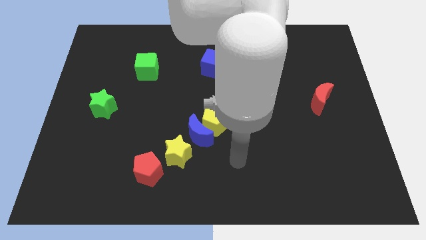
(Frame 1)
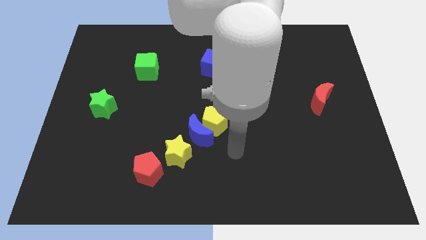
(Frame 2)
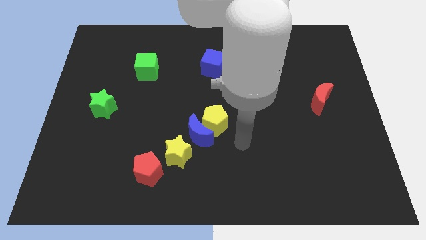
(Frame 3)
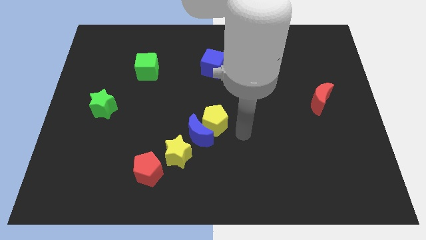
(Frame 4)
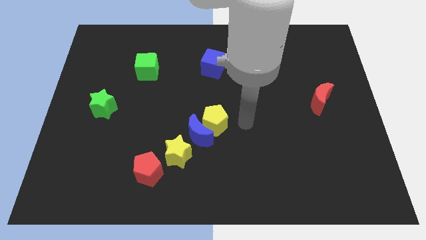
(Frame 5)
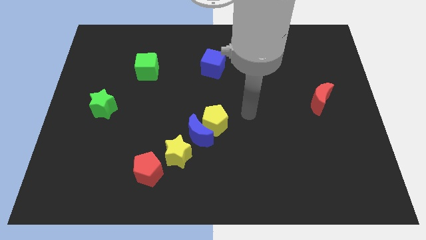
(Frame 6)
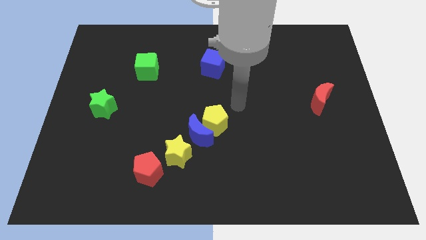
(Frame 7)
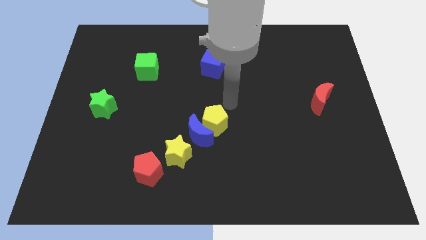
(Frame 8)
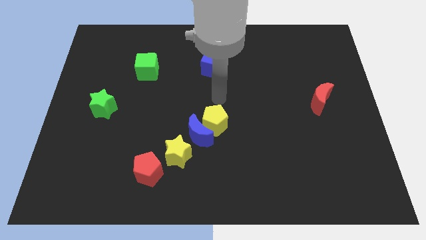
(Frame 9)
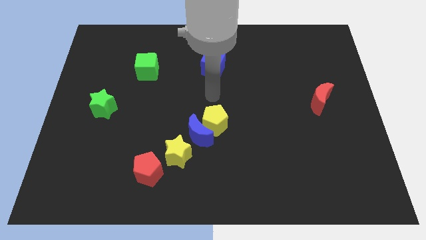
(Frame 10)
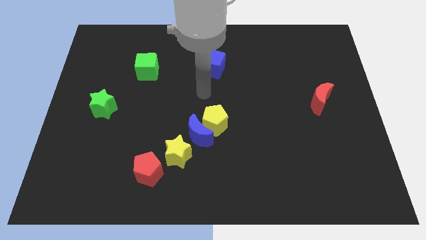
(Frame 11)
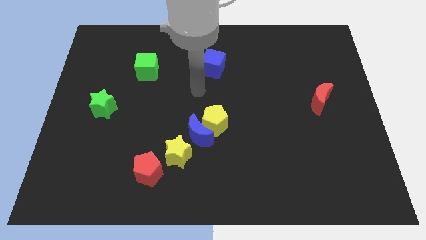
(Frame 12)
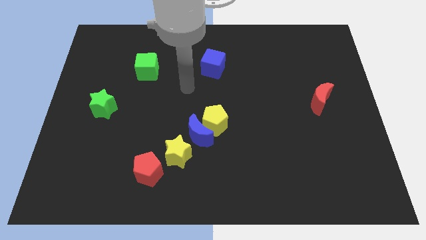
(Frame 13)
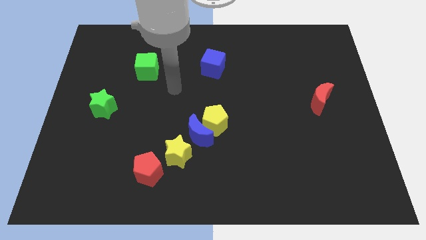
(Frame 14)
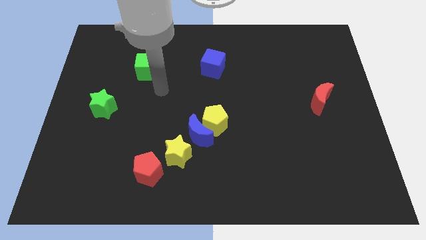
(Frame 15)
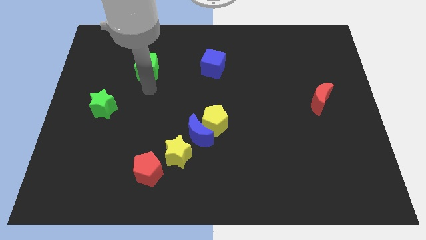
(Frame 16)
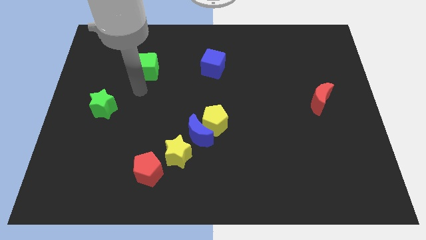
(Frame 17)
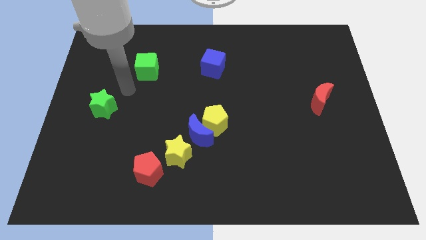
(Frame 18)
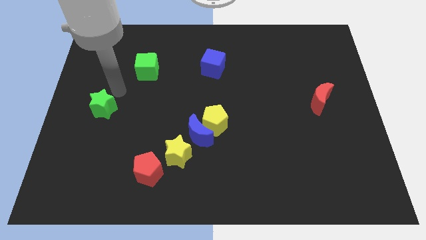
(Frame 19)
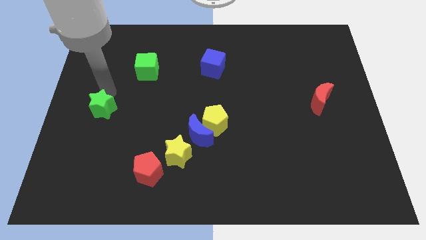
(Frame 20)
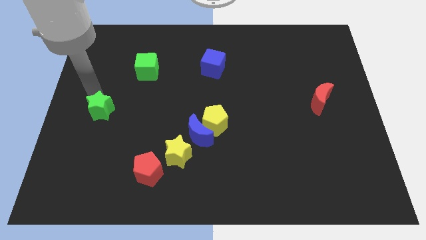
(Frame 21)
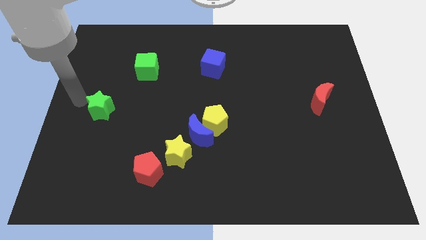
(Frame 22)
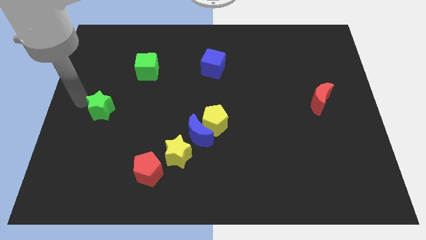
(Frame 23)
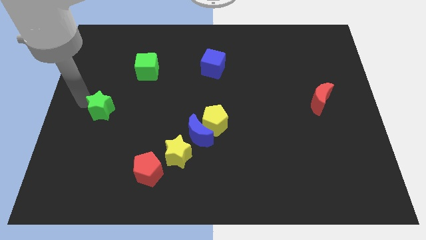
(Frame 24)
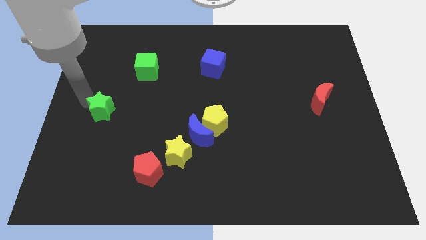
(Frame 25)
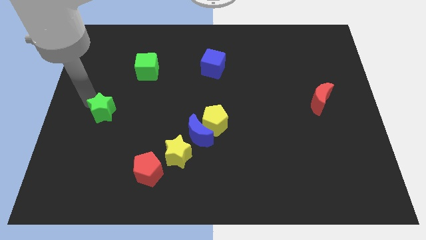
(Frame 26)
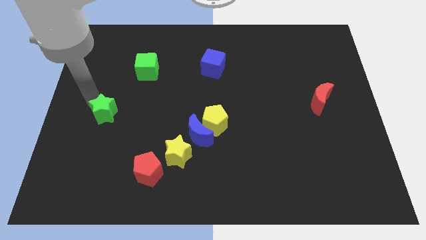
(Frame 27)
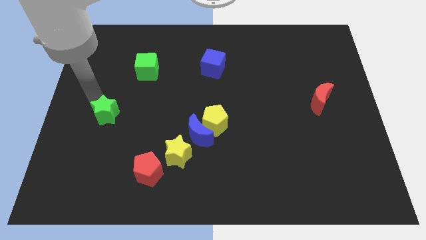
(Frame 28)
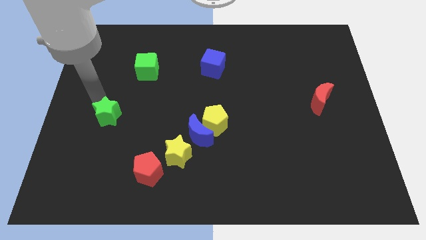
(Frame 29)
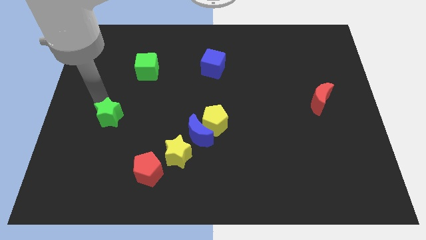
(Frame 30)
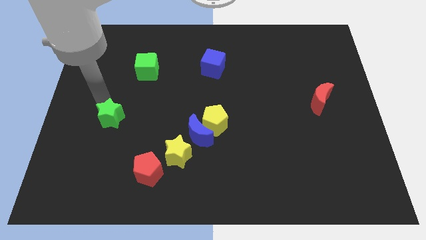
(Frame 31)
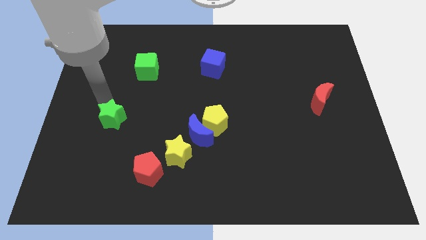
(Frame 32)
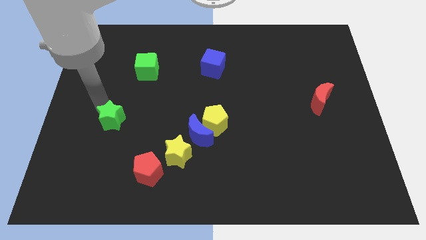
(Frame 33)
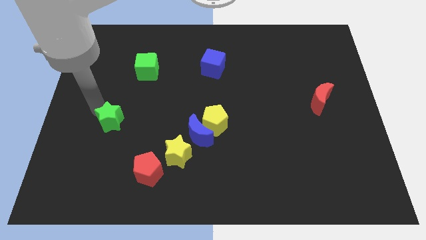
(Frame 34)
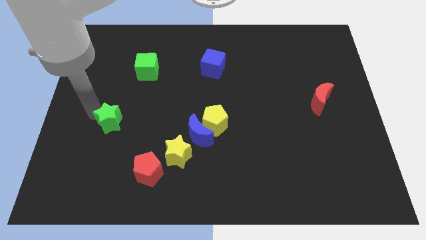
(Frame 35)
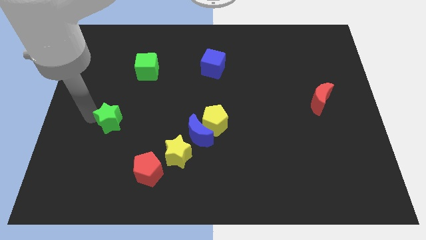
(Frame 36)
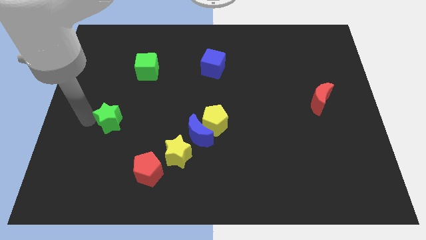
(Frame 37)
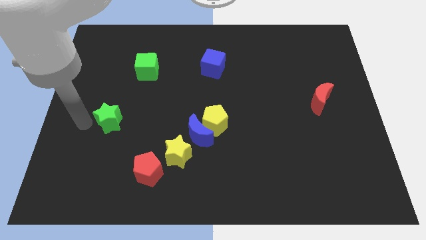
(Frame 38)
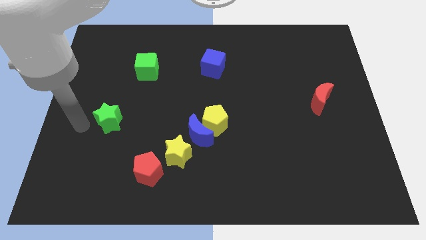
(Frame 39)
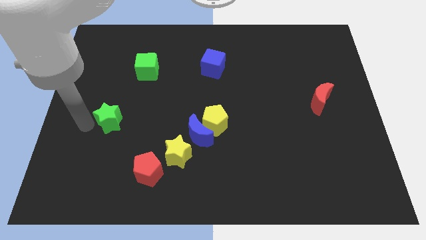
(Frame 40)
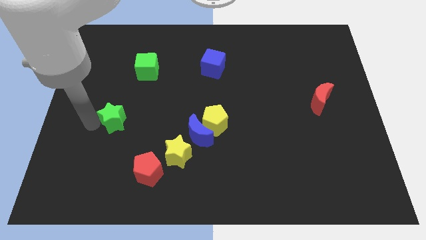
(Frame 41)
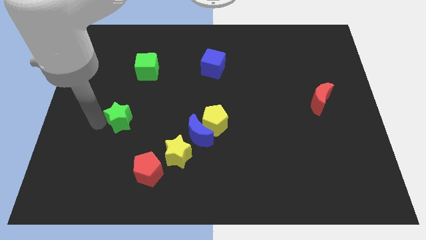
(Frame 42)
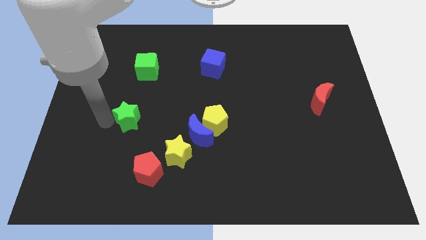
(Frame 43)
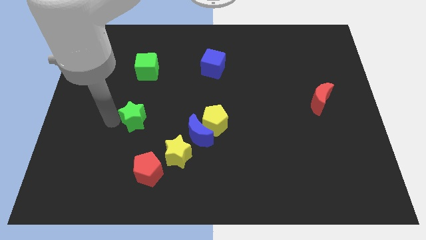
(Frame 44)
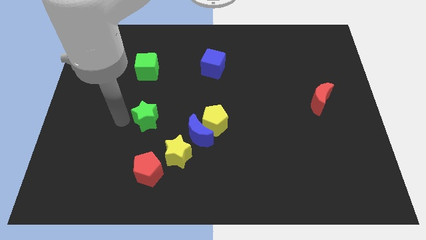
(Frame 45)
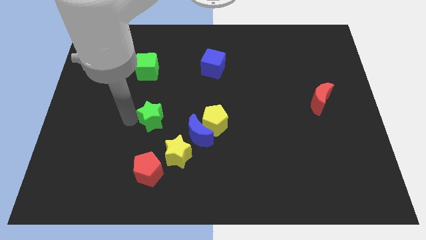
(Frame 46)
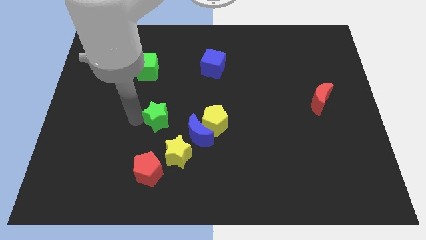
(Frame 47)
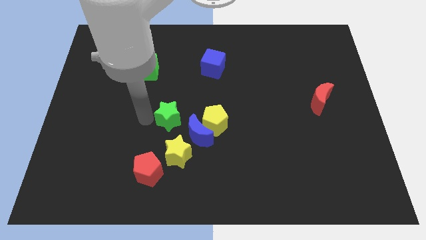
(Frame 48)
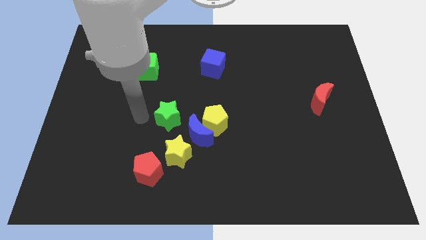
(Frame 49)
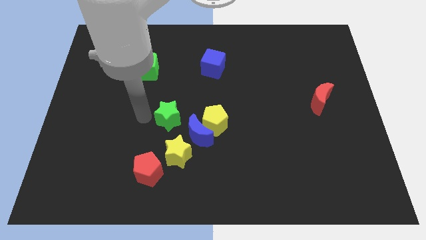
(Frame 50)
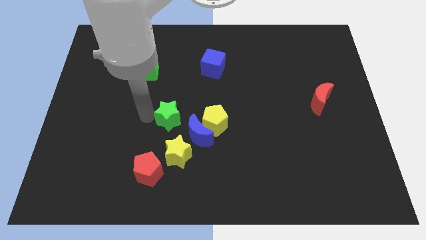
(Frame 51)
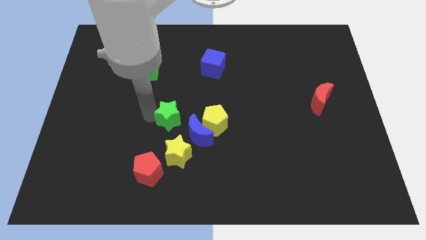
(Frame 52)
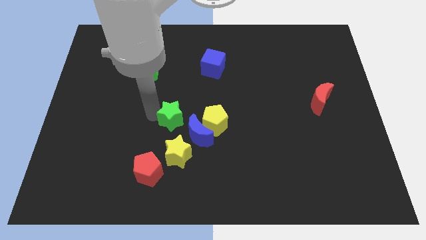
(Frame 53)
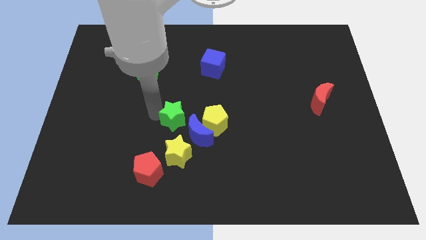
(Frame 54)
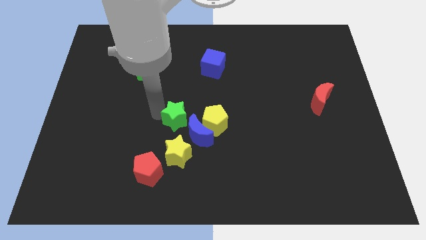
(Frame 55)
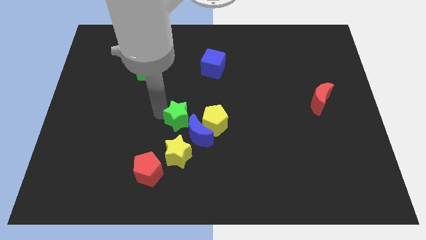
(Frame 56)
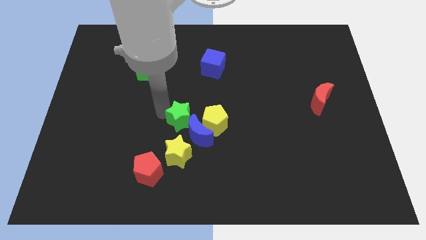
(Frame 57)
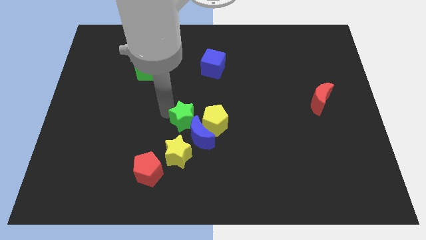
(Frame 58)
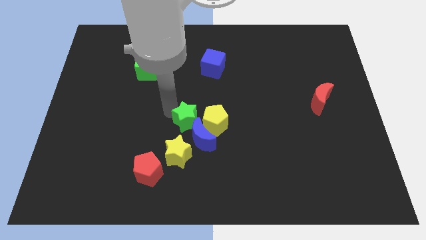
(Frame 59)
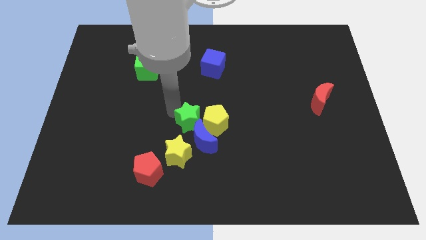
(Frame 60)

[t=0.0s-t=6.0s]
put the green star next to the yellow pentagon

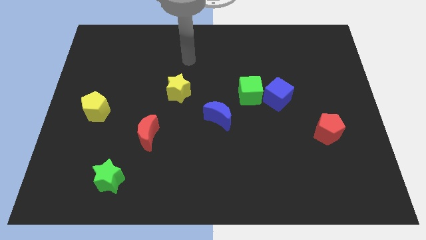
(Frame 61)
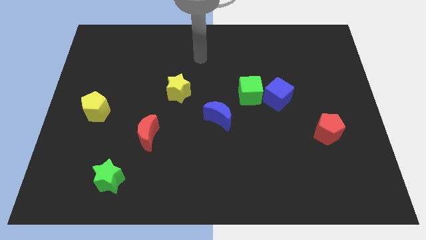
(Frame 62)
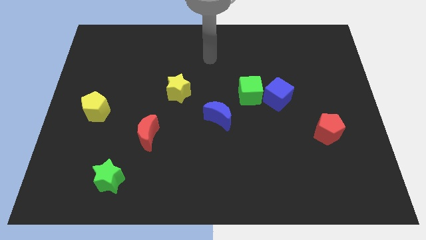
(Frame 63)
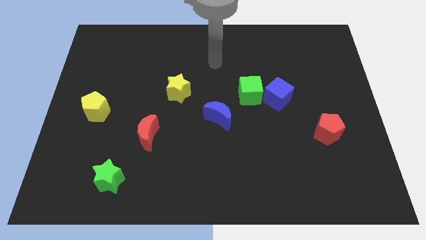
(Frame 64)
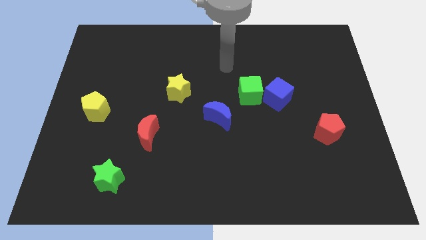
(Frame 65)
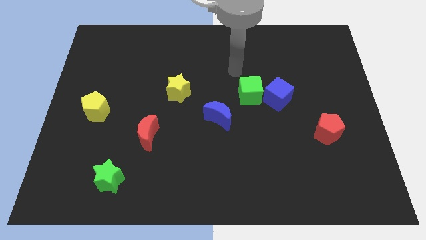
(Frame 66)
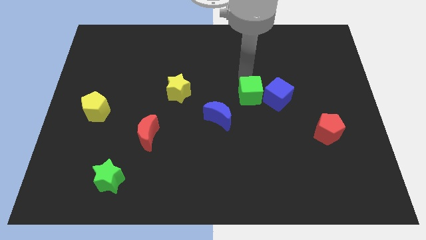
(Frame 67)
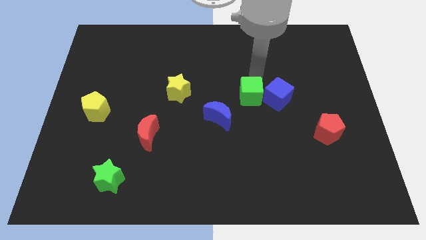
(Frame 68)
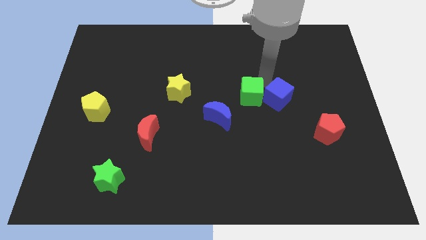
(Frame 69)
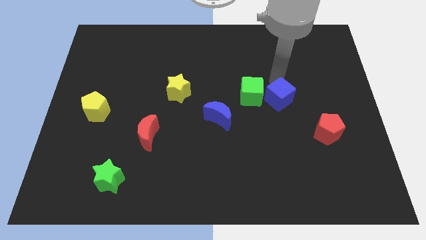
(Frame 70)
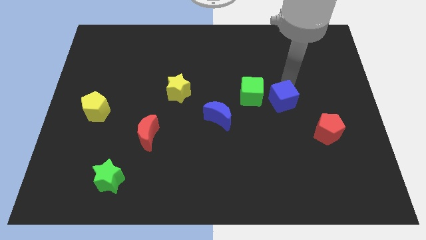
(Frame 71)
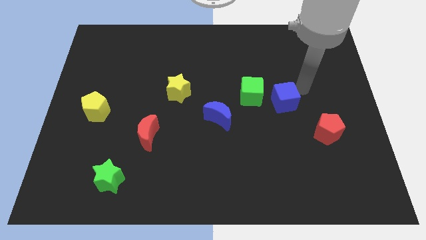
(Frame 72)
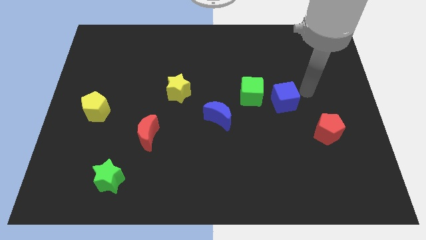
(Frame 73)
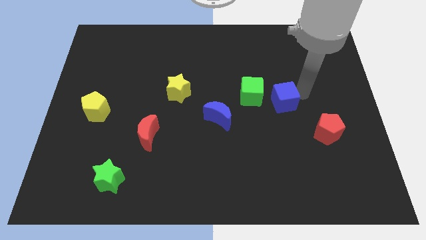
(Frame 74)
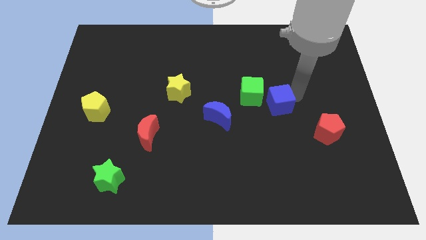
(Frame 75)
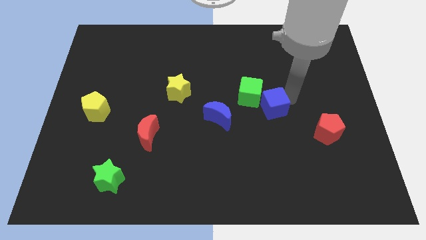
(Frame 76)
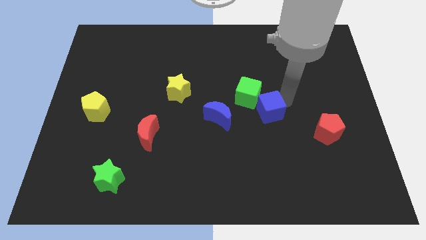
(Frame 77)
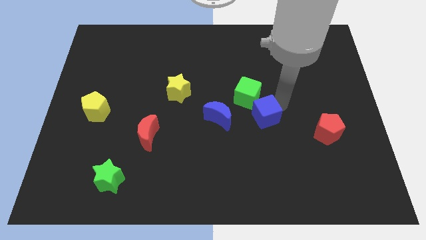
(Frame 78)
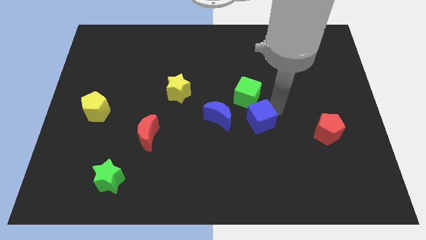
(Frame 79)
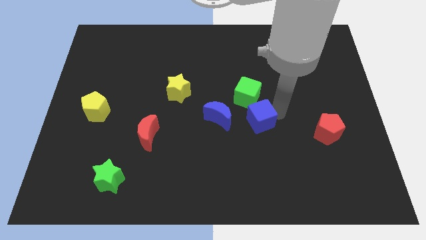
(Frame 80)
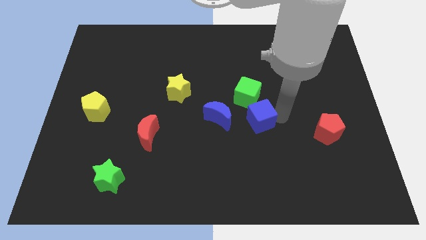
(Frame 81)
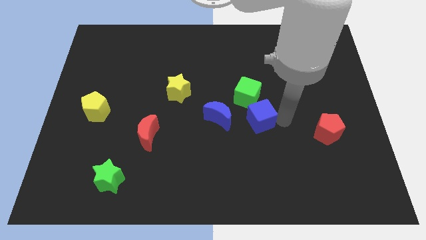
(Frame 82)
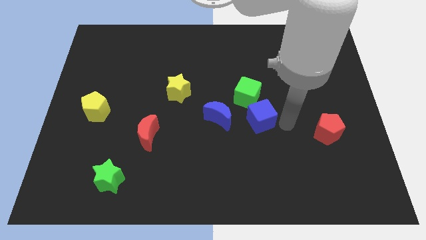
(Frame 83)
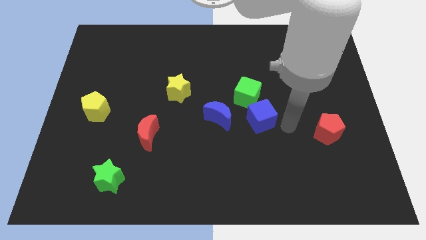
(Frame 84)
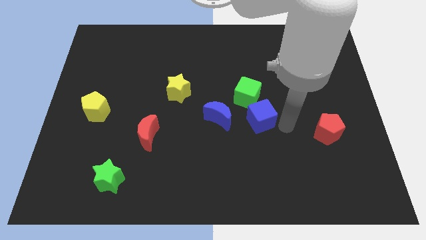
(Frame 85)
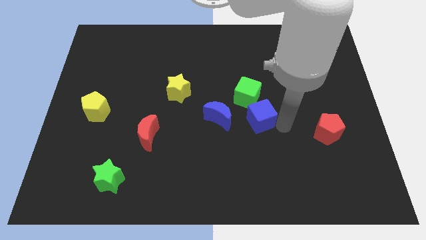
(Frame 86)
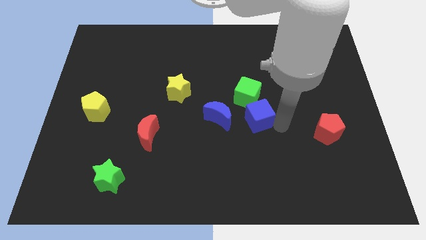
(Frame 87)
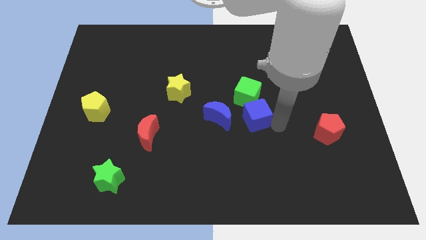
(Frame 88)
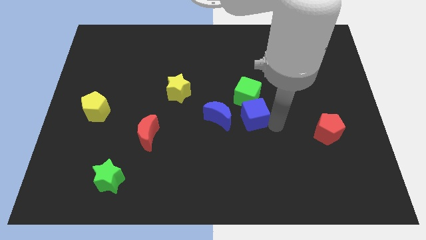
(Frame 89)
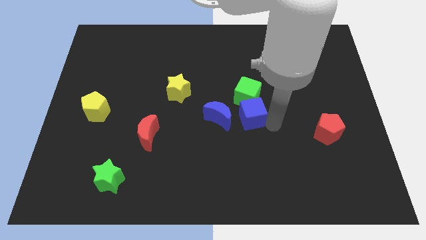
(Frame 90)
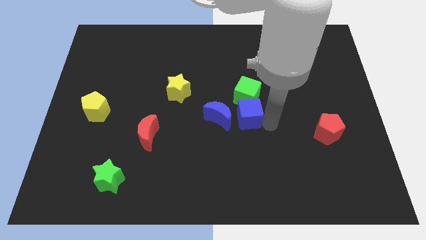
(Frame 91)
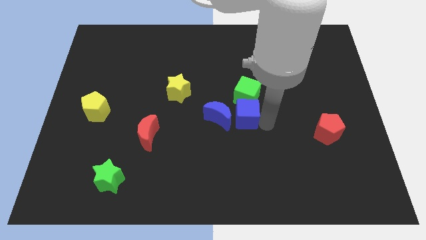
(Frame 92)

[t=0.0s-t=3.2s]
move the blue cube to the blue moon
